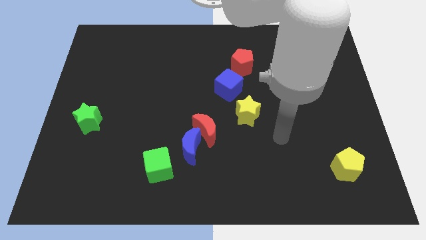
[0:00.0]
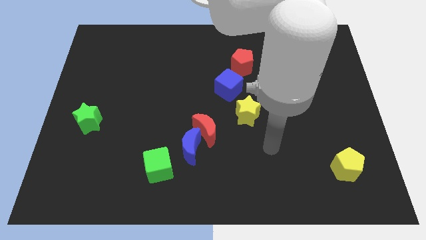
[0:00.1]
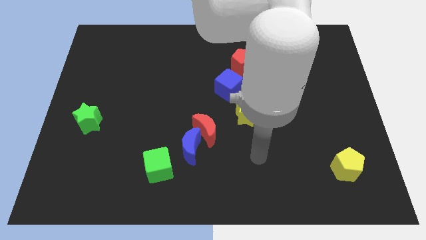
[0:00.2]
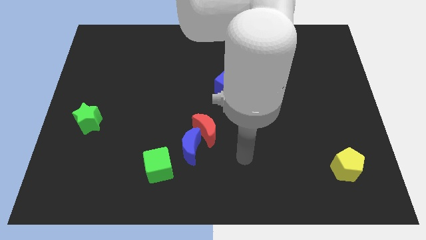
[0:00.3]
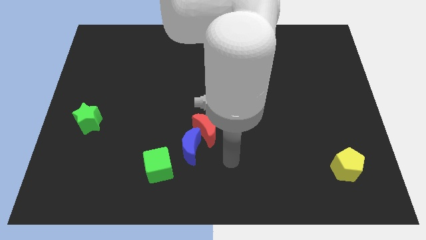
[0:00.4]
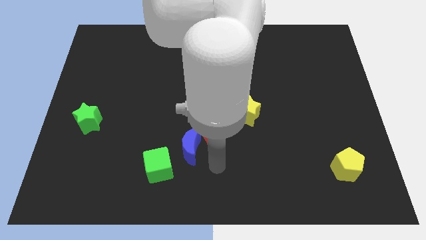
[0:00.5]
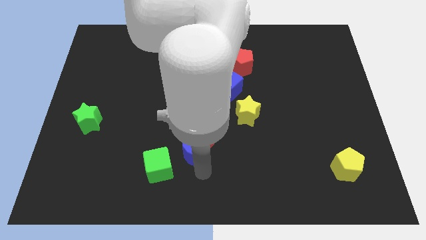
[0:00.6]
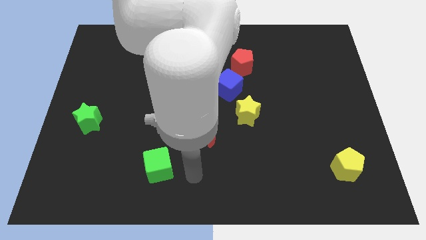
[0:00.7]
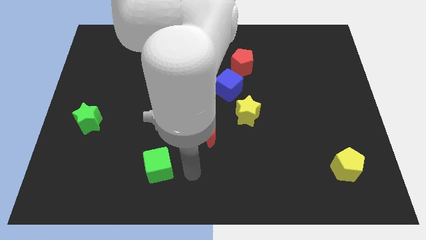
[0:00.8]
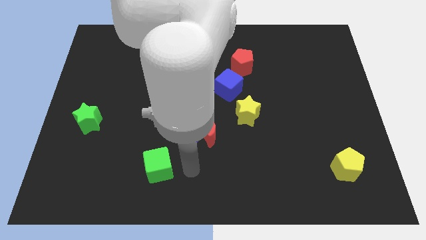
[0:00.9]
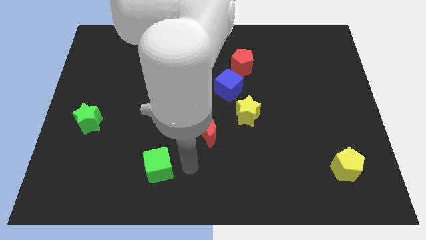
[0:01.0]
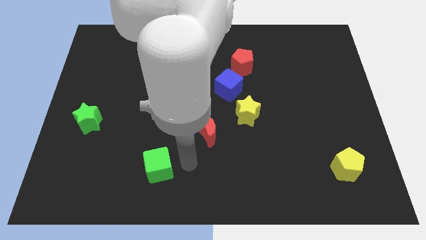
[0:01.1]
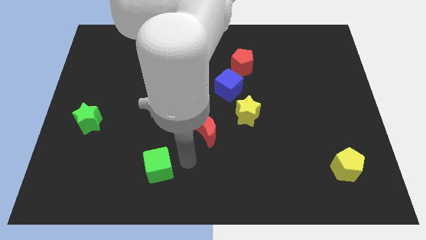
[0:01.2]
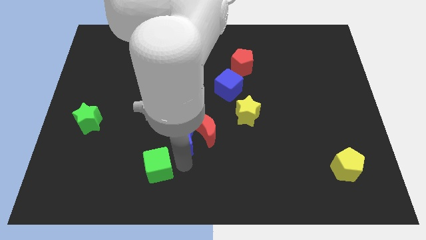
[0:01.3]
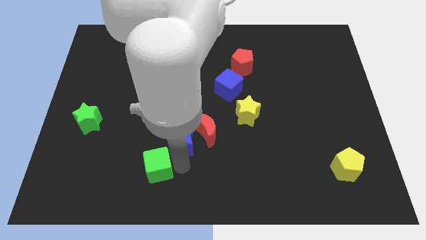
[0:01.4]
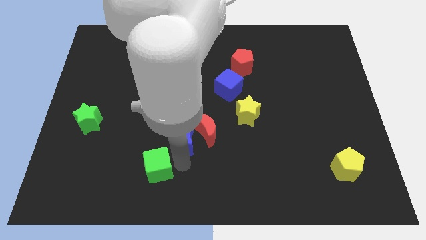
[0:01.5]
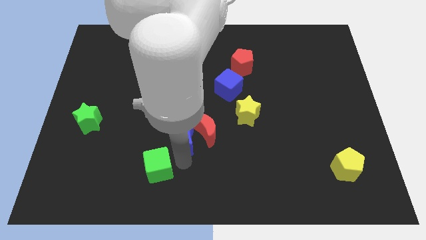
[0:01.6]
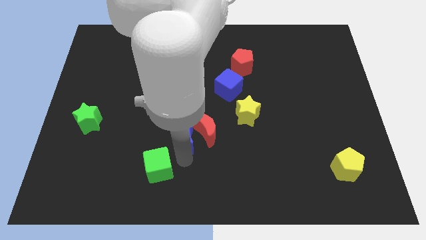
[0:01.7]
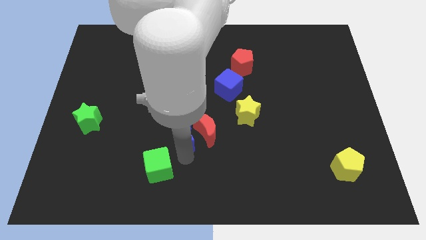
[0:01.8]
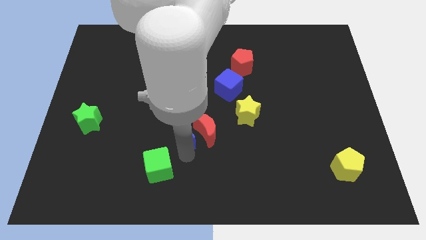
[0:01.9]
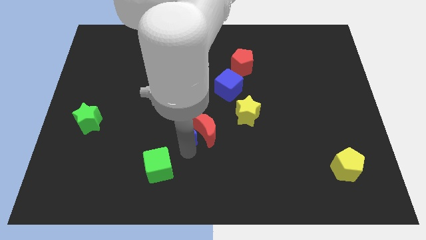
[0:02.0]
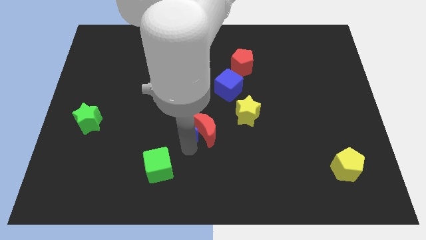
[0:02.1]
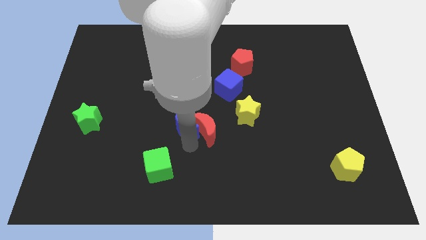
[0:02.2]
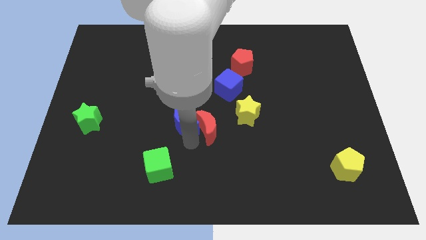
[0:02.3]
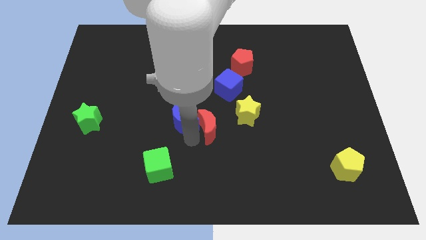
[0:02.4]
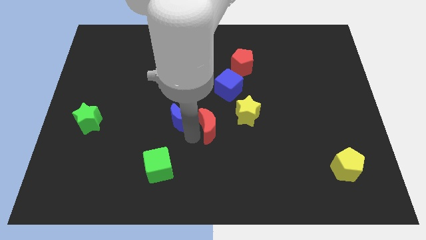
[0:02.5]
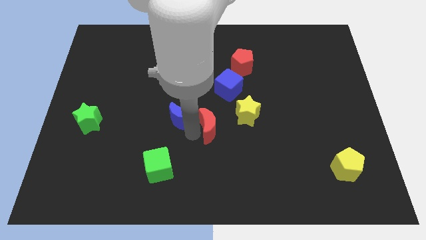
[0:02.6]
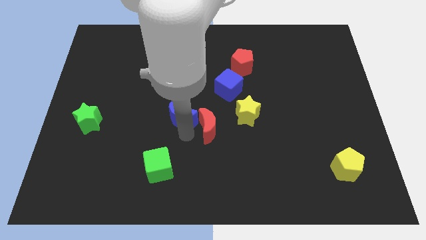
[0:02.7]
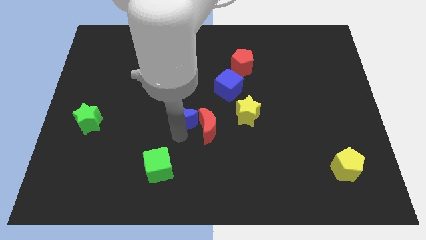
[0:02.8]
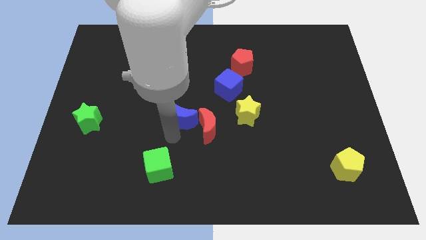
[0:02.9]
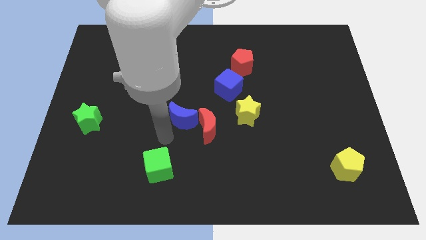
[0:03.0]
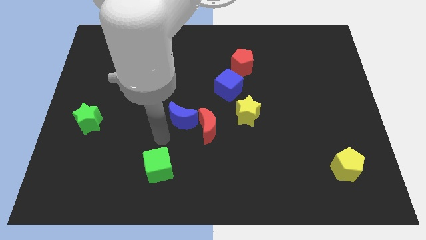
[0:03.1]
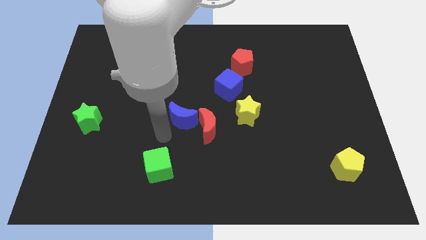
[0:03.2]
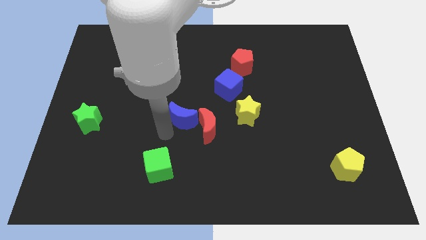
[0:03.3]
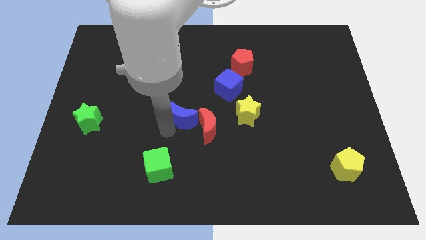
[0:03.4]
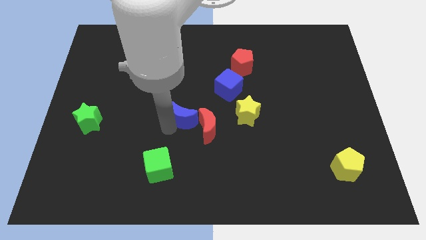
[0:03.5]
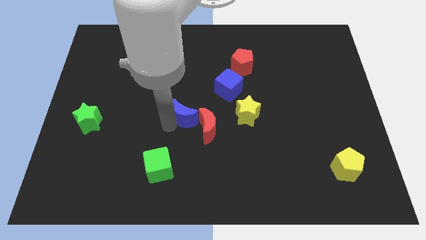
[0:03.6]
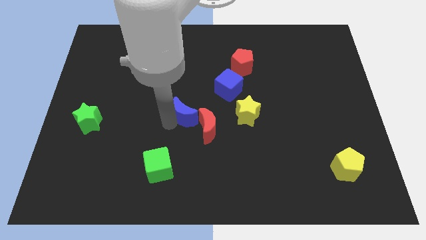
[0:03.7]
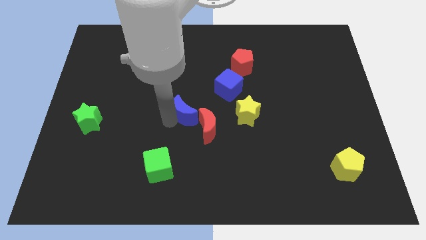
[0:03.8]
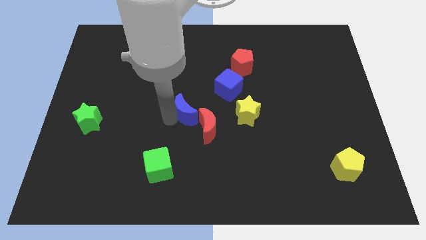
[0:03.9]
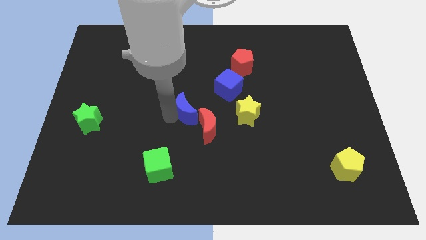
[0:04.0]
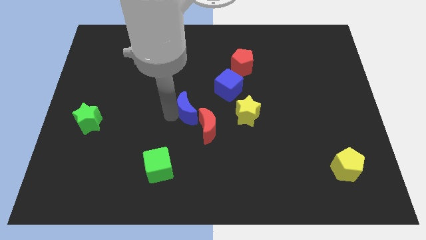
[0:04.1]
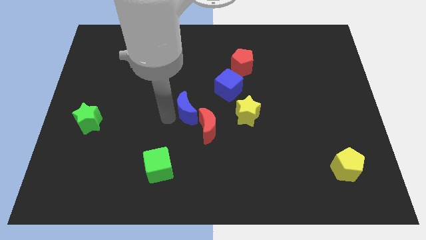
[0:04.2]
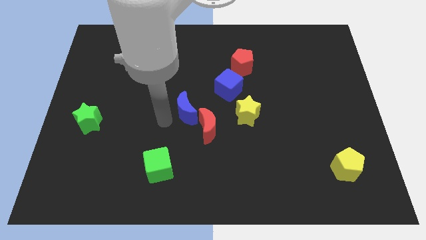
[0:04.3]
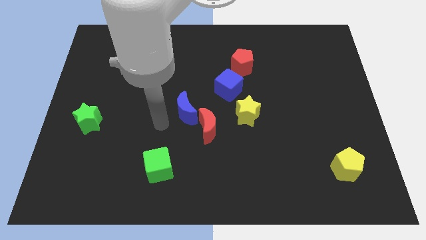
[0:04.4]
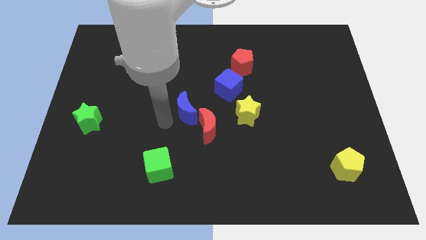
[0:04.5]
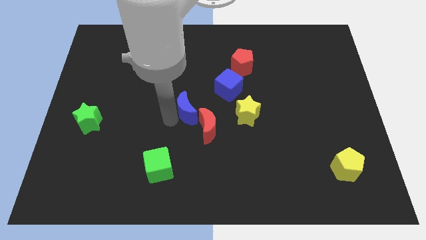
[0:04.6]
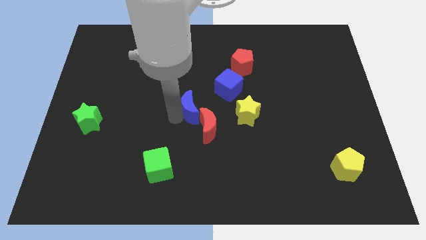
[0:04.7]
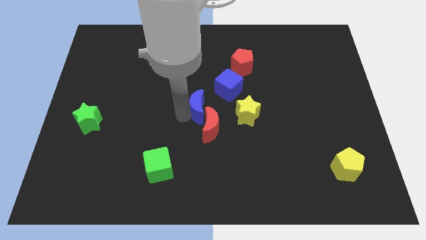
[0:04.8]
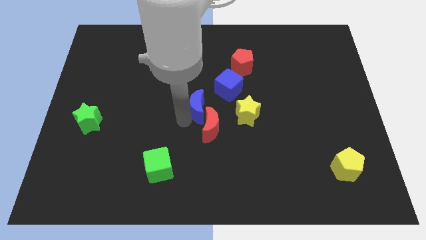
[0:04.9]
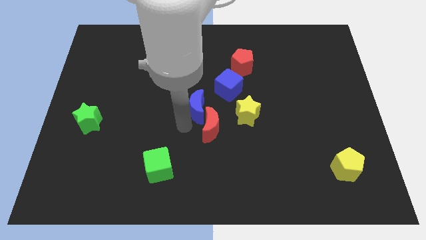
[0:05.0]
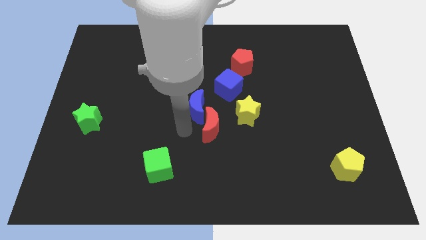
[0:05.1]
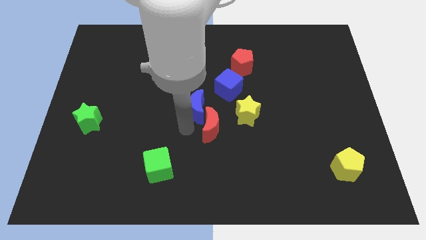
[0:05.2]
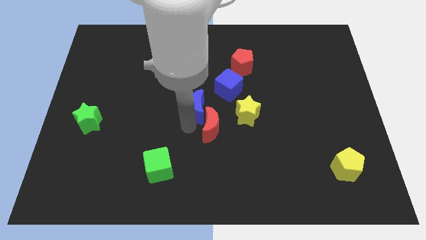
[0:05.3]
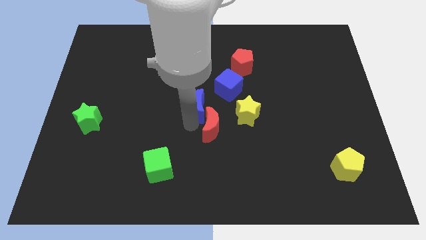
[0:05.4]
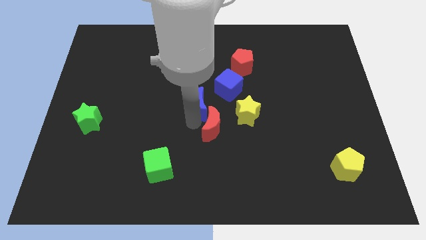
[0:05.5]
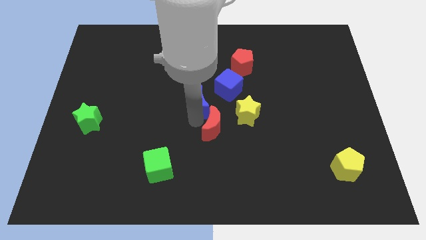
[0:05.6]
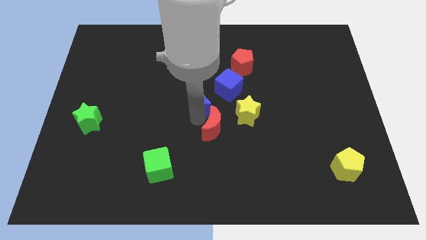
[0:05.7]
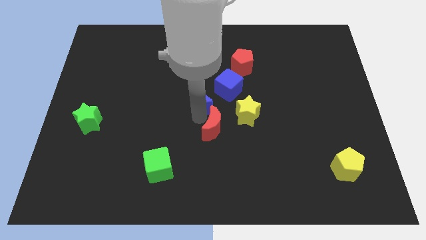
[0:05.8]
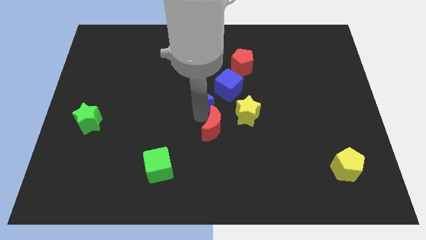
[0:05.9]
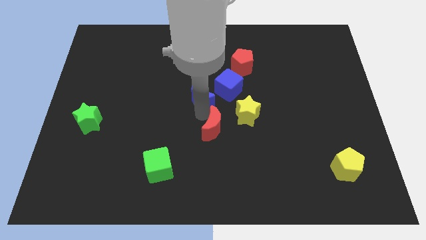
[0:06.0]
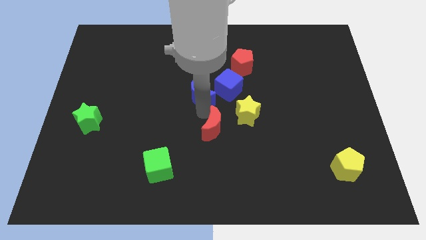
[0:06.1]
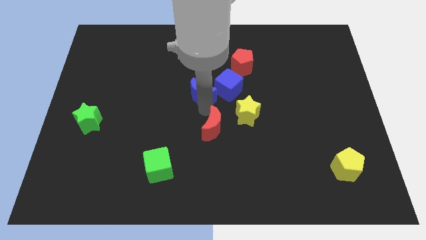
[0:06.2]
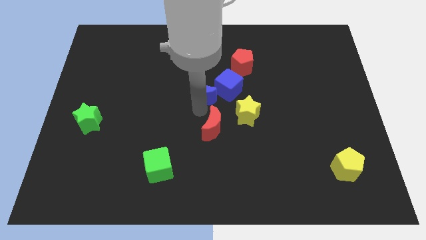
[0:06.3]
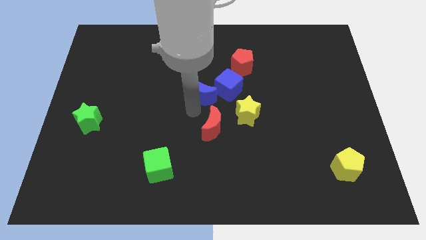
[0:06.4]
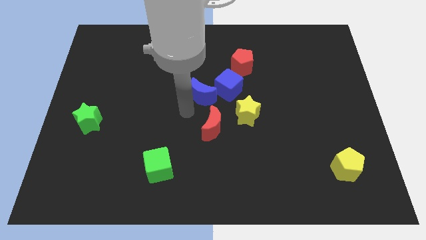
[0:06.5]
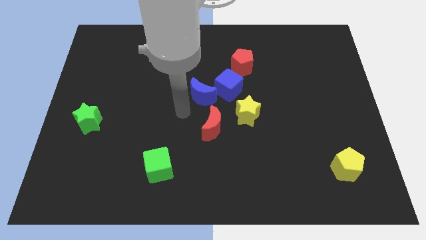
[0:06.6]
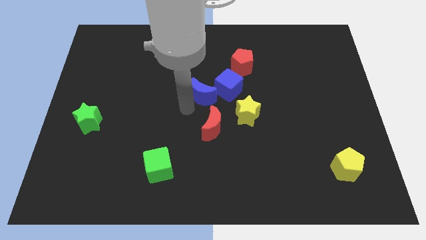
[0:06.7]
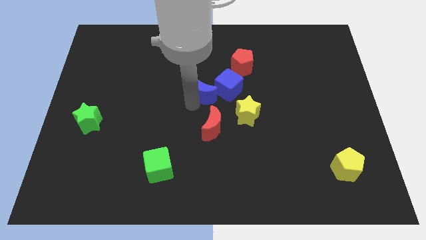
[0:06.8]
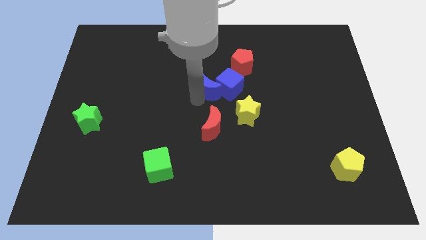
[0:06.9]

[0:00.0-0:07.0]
slide the blue moon to the bottom left of the red pentagon
